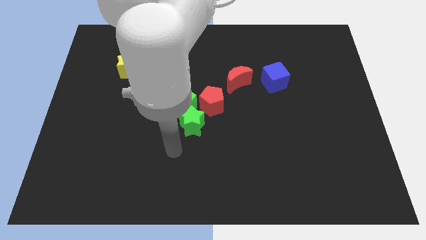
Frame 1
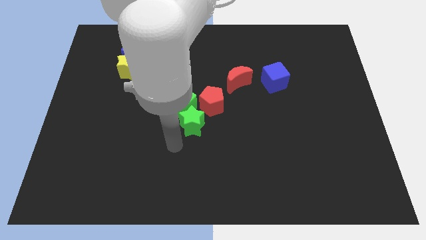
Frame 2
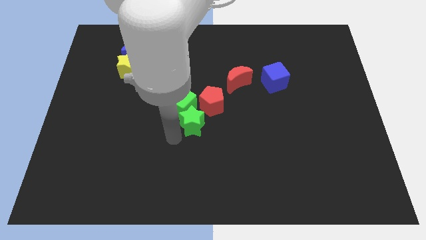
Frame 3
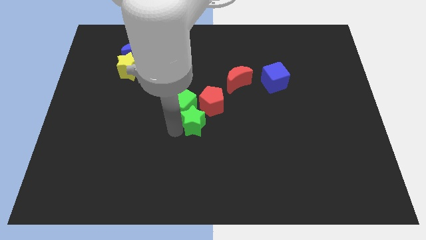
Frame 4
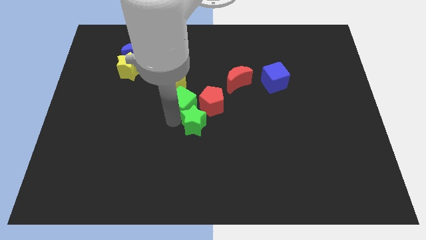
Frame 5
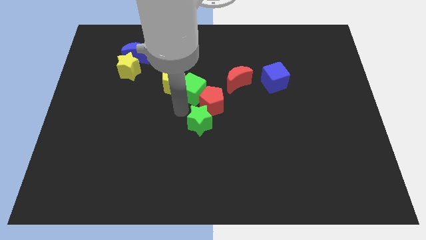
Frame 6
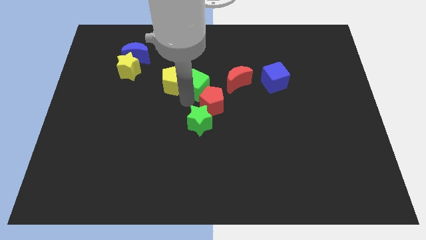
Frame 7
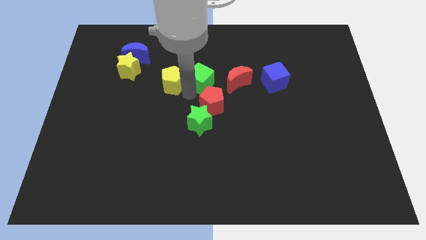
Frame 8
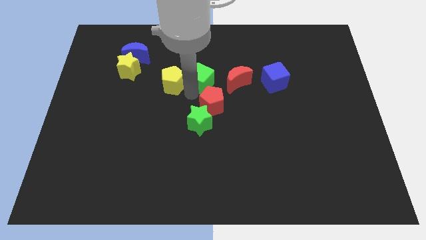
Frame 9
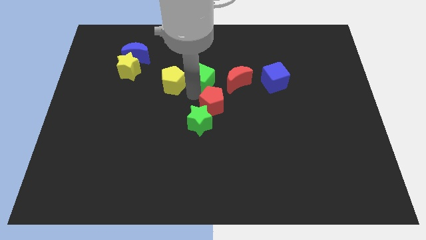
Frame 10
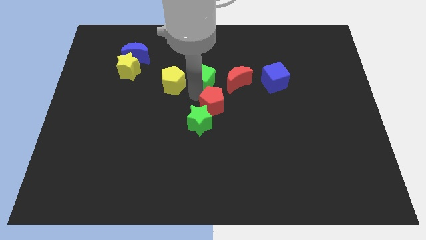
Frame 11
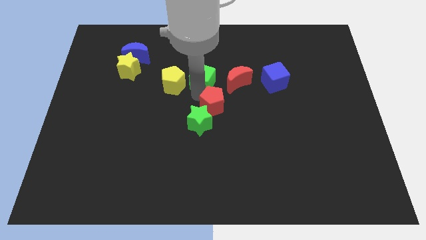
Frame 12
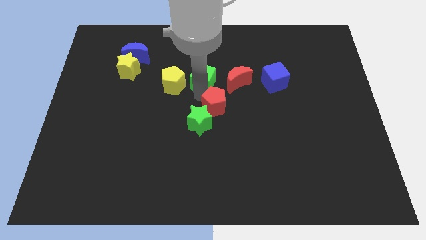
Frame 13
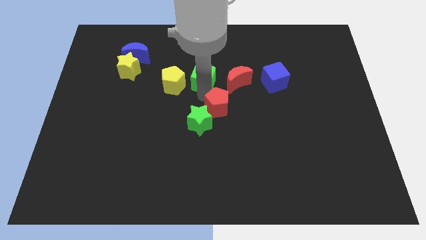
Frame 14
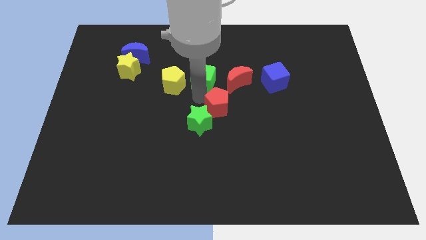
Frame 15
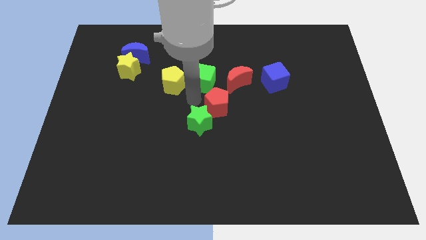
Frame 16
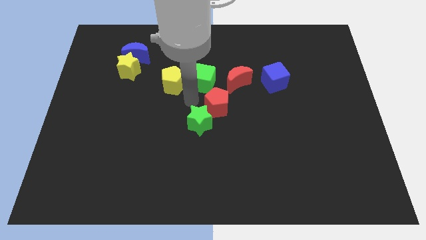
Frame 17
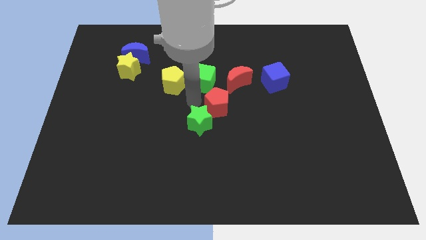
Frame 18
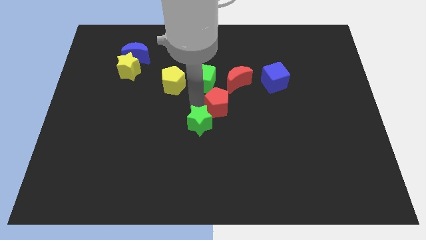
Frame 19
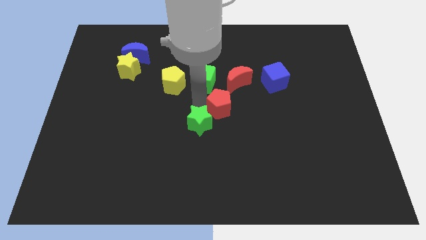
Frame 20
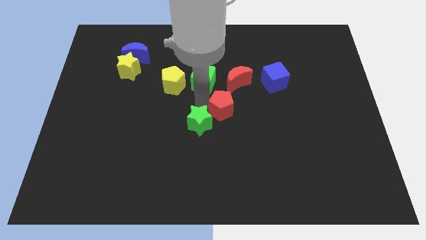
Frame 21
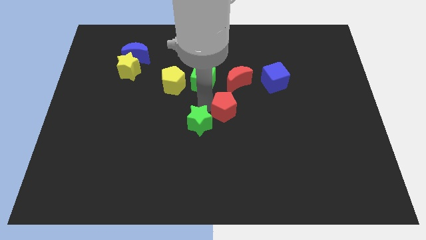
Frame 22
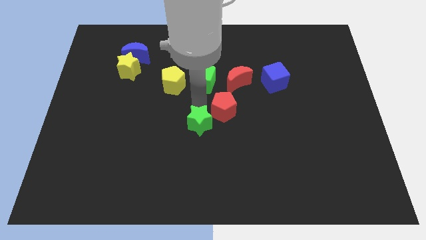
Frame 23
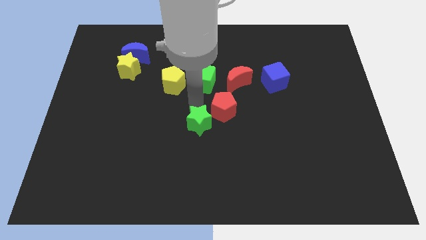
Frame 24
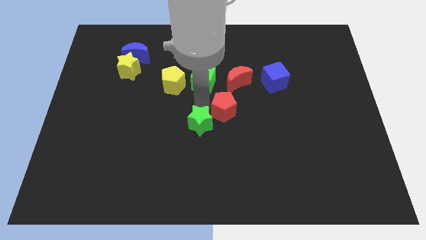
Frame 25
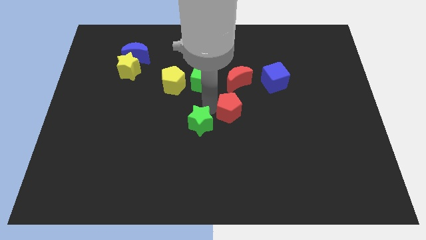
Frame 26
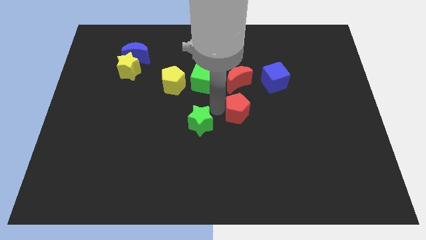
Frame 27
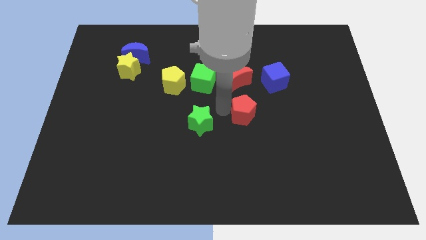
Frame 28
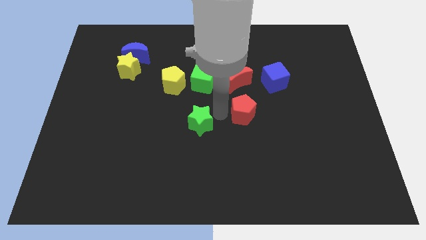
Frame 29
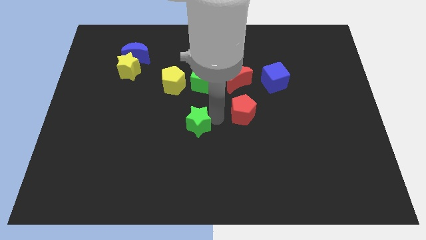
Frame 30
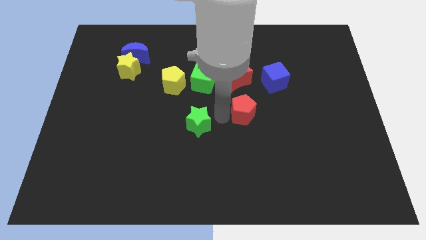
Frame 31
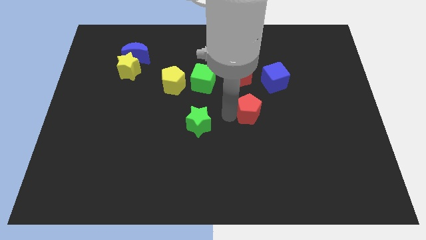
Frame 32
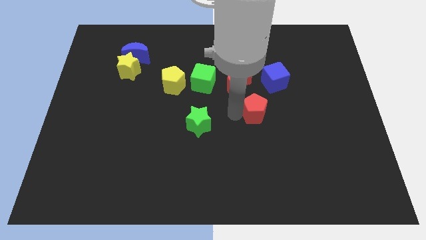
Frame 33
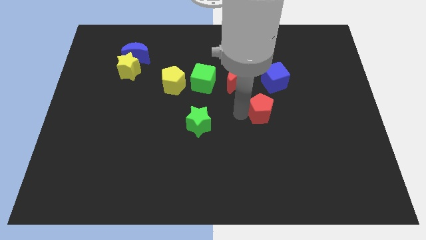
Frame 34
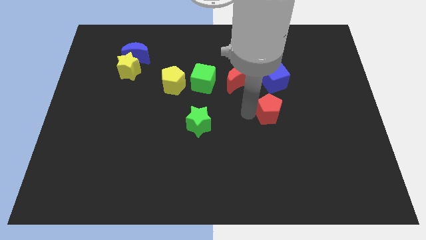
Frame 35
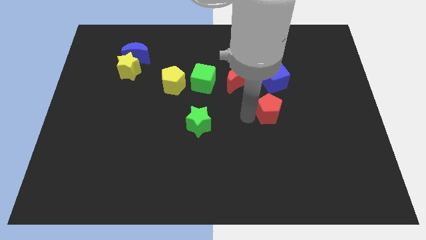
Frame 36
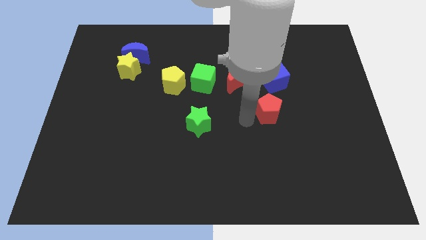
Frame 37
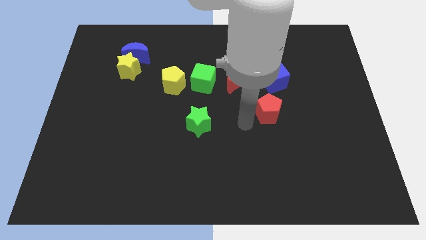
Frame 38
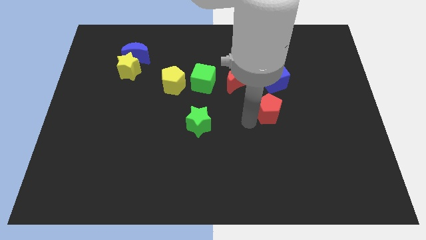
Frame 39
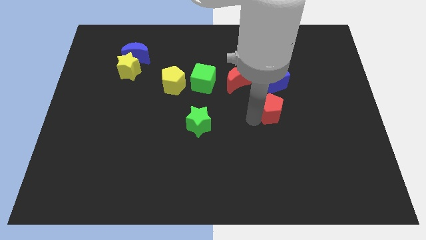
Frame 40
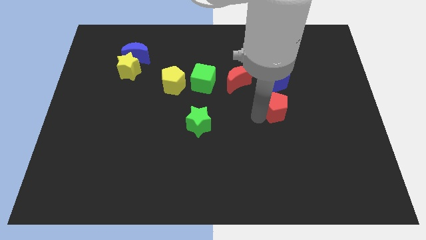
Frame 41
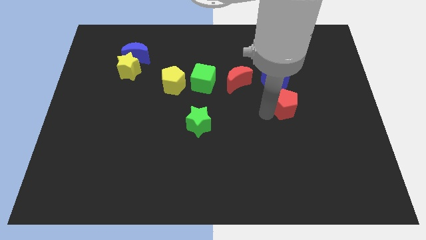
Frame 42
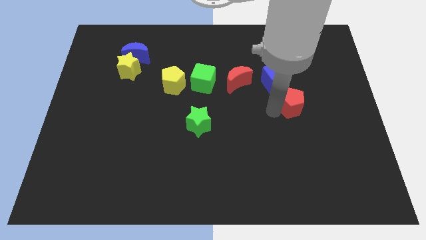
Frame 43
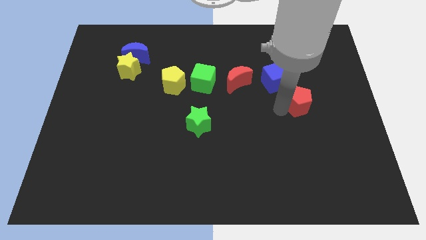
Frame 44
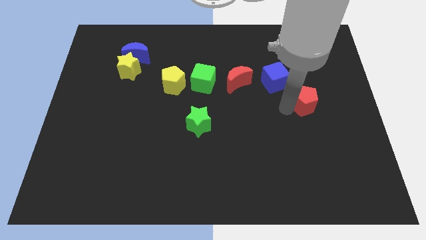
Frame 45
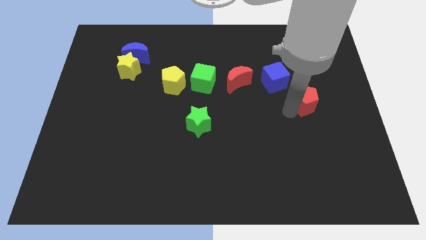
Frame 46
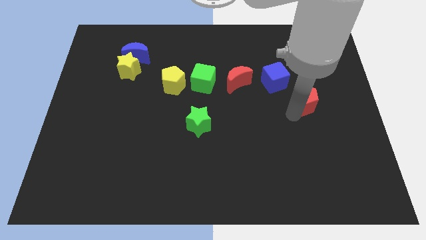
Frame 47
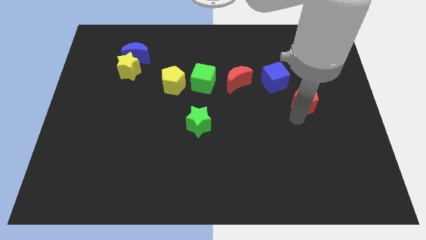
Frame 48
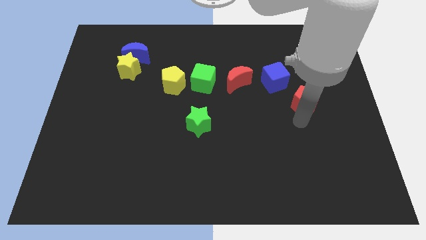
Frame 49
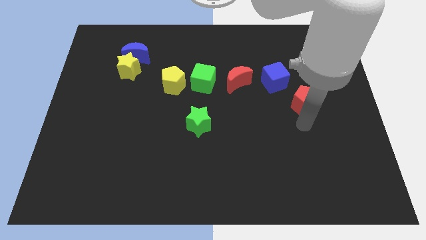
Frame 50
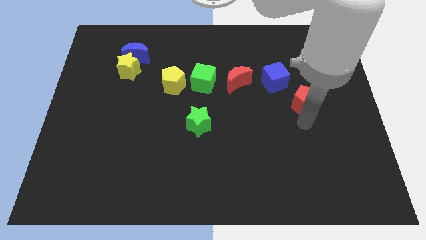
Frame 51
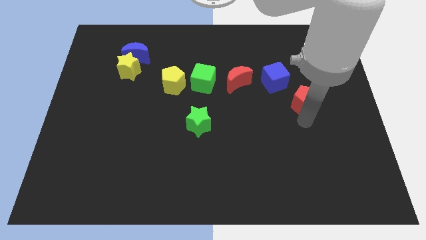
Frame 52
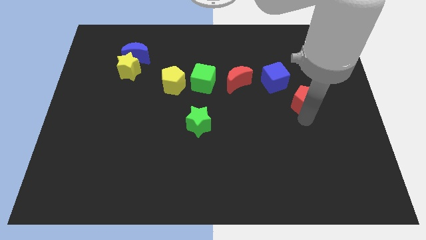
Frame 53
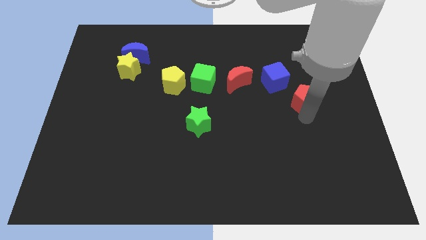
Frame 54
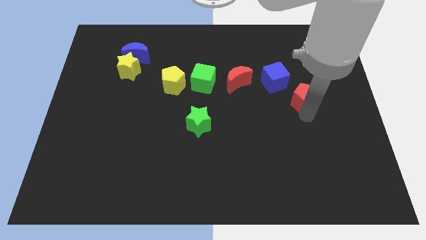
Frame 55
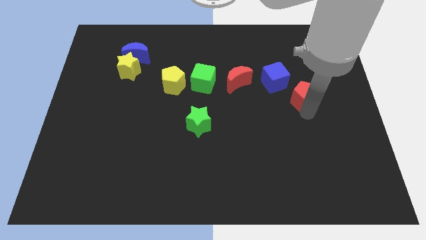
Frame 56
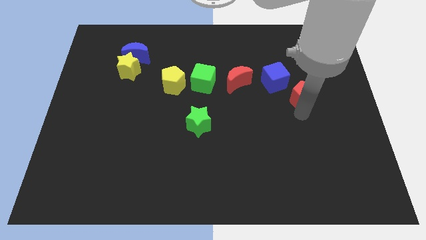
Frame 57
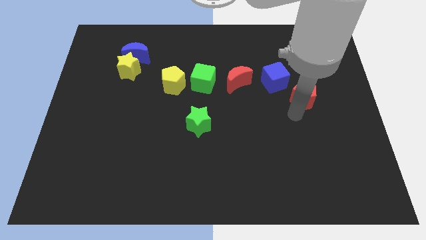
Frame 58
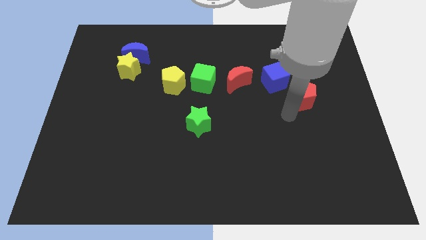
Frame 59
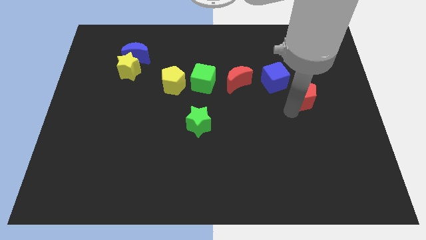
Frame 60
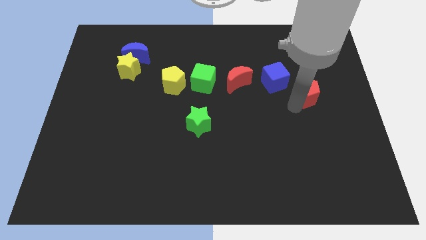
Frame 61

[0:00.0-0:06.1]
move the red pentagon to the right side of the blue cube

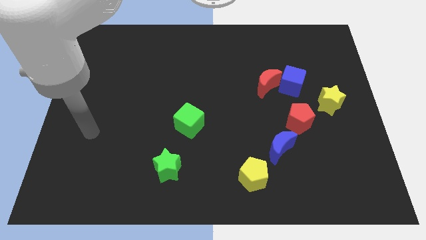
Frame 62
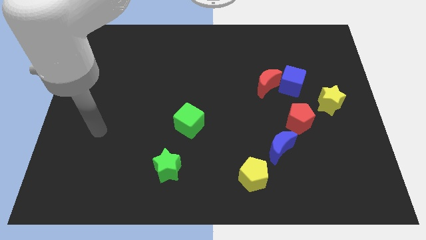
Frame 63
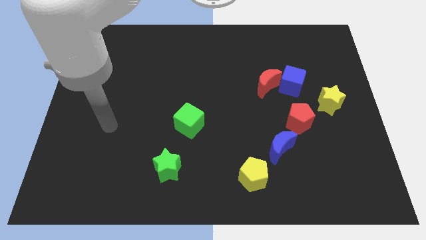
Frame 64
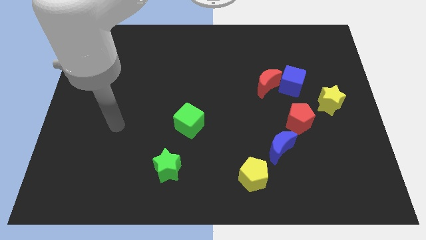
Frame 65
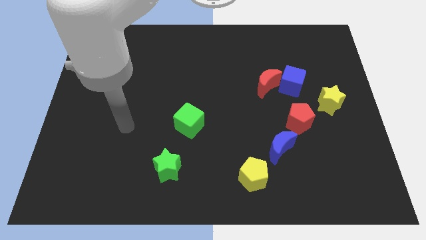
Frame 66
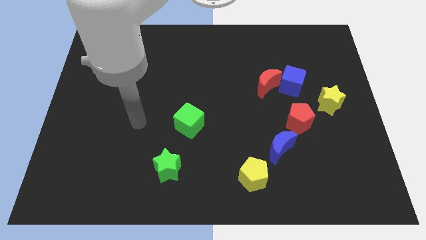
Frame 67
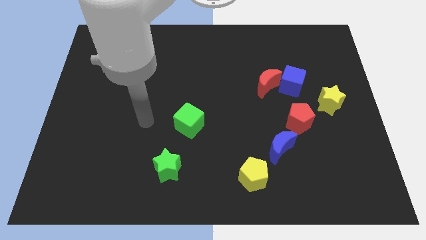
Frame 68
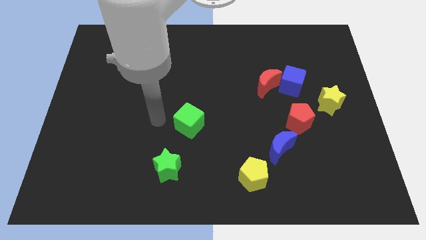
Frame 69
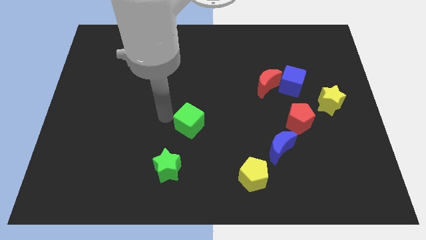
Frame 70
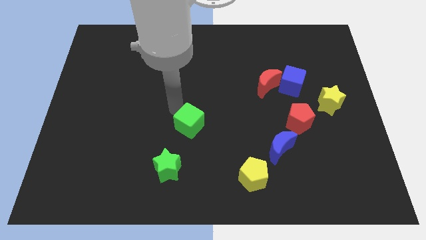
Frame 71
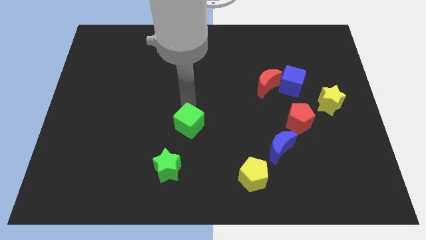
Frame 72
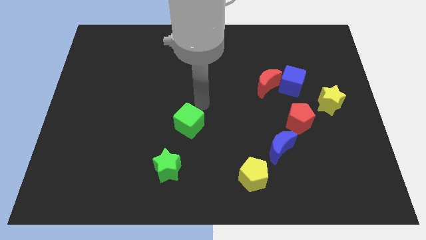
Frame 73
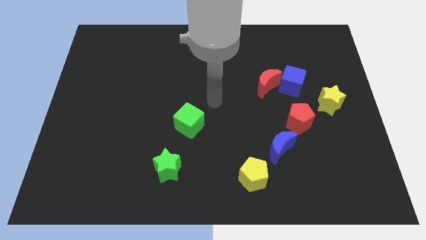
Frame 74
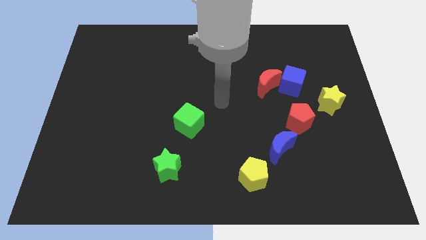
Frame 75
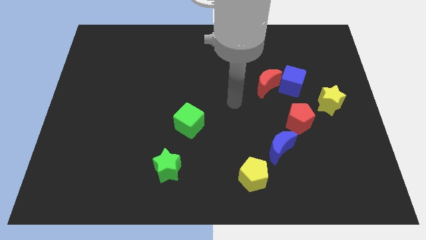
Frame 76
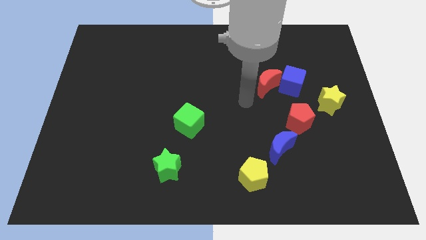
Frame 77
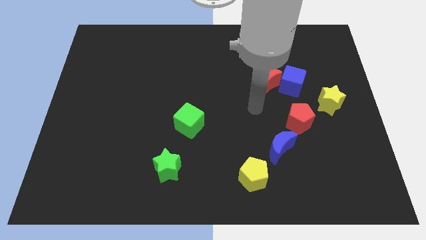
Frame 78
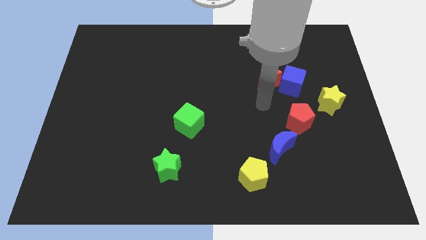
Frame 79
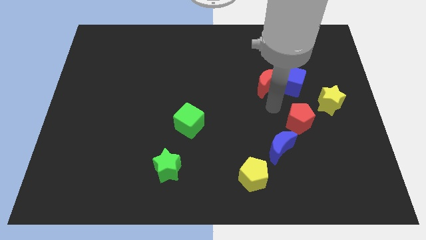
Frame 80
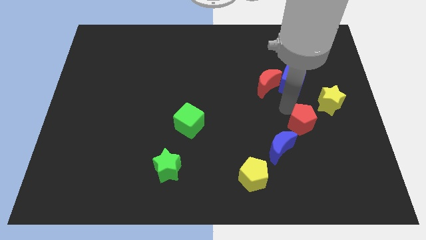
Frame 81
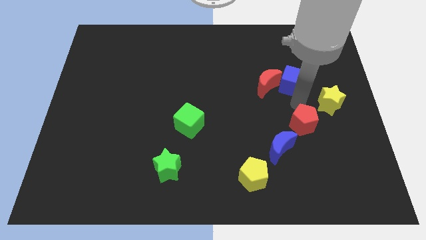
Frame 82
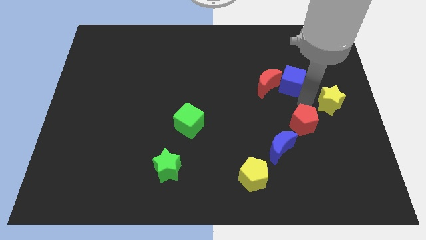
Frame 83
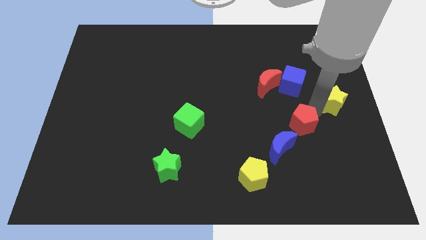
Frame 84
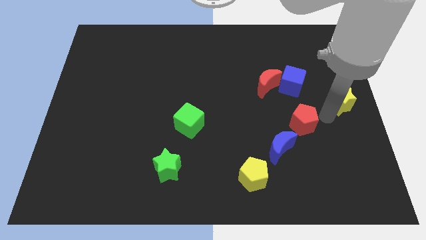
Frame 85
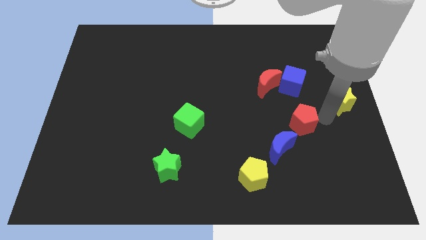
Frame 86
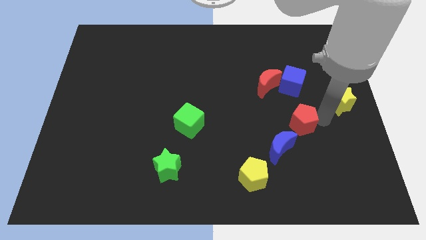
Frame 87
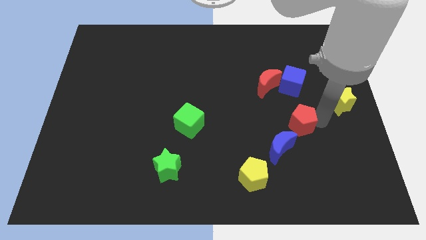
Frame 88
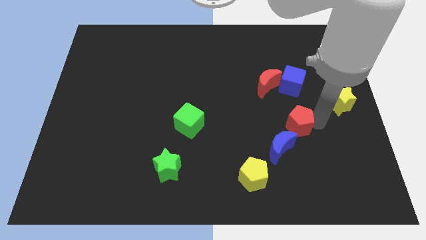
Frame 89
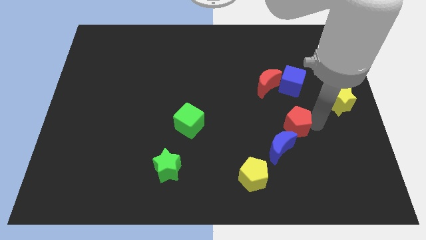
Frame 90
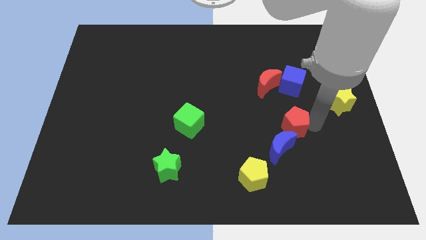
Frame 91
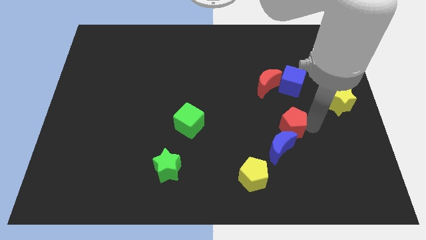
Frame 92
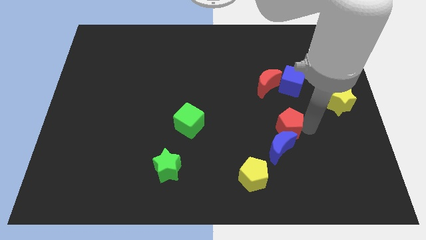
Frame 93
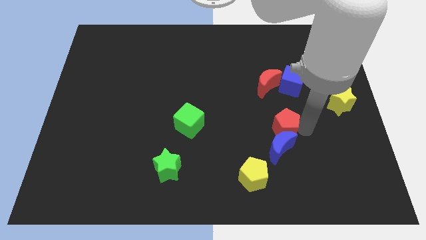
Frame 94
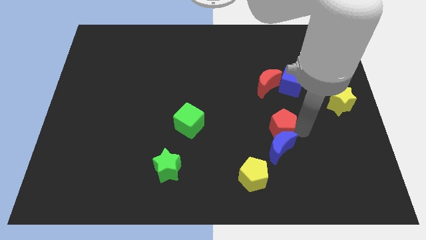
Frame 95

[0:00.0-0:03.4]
move the red pentagon to the top left of the blue moon
